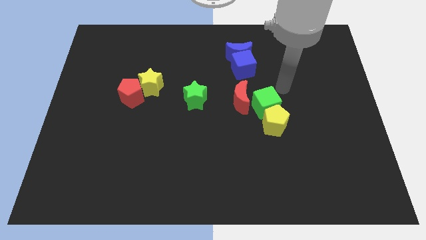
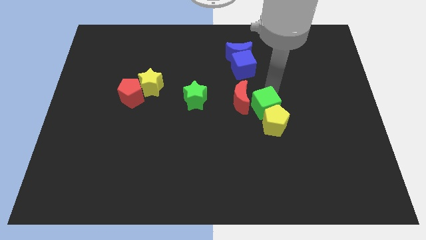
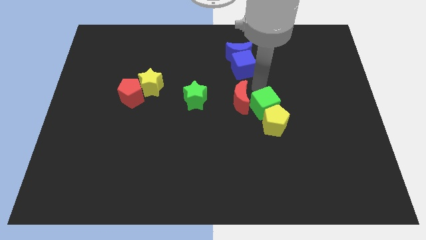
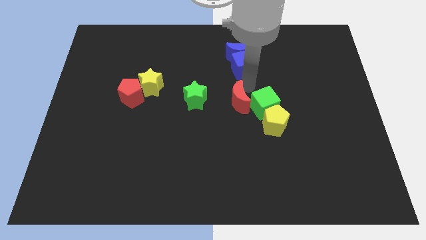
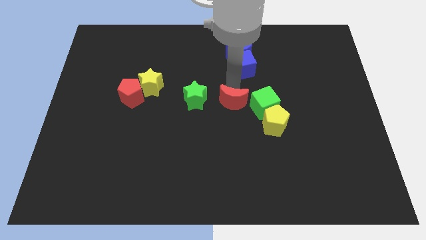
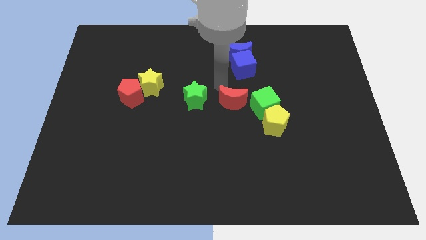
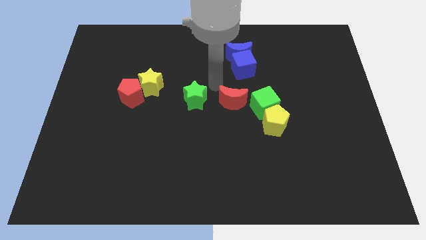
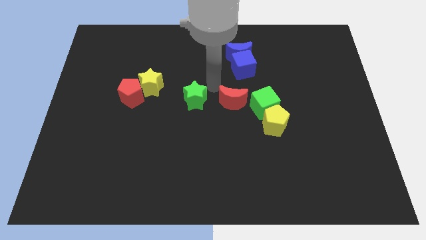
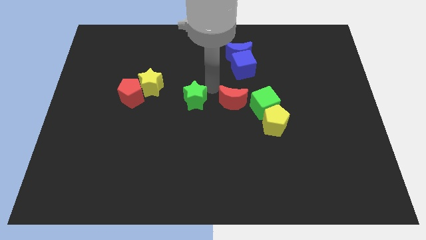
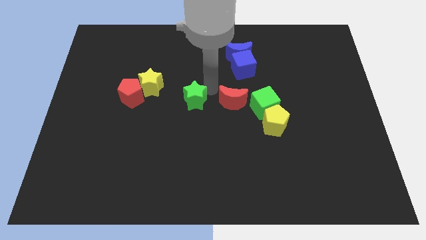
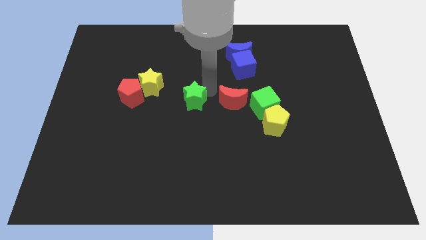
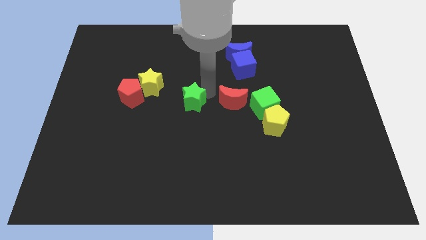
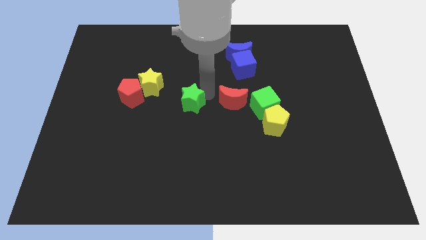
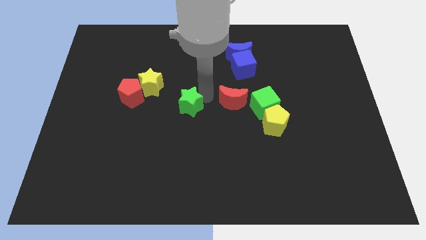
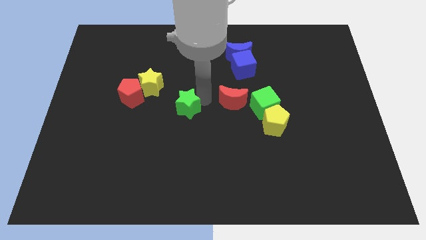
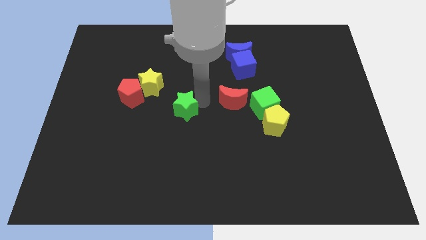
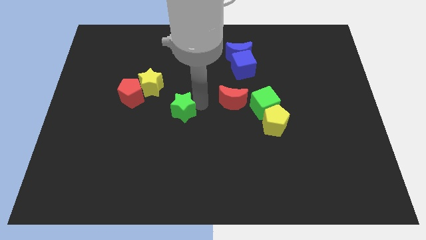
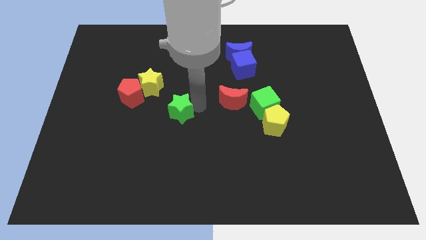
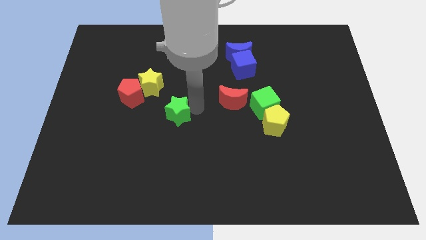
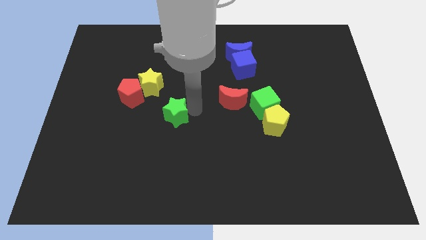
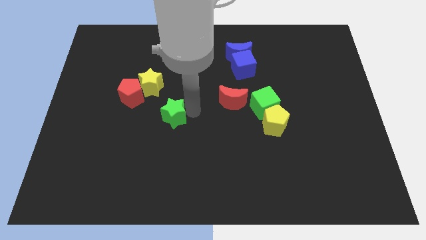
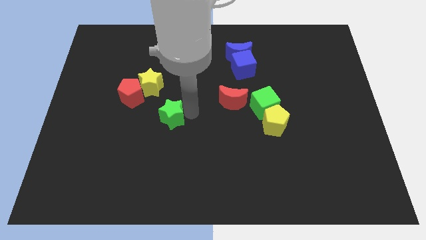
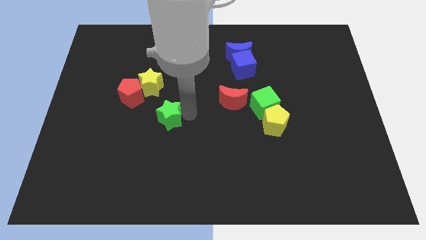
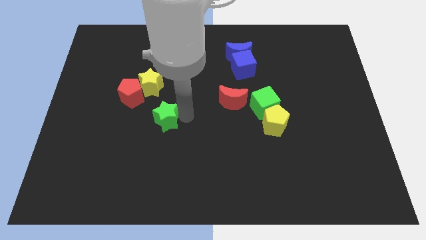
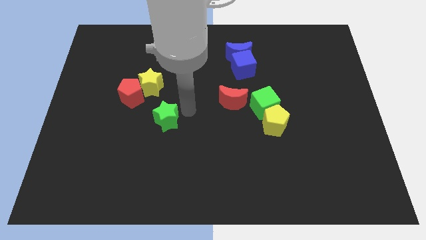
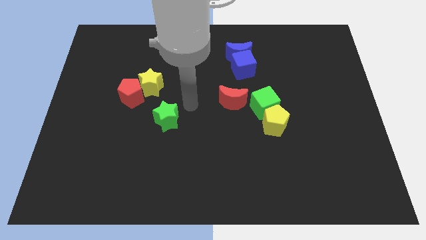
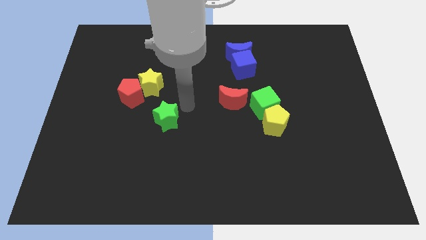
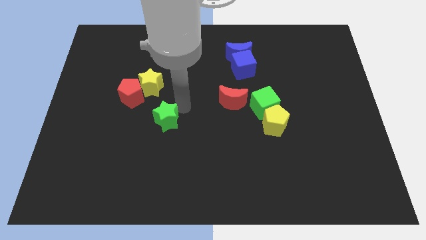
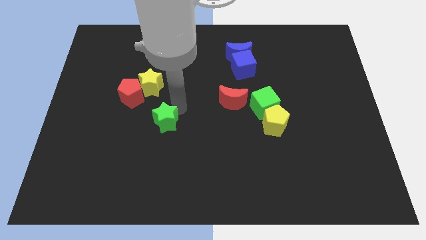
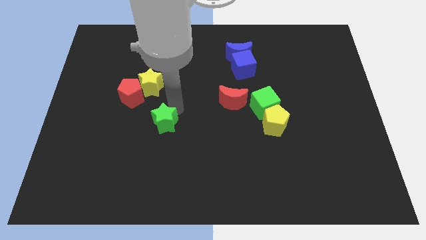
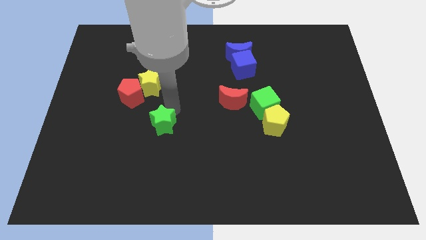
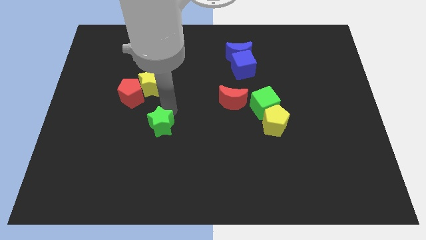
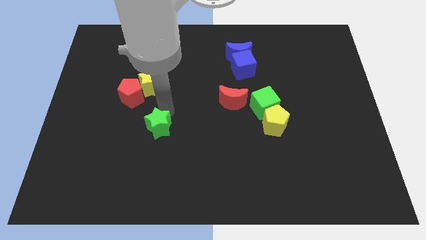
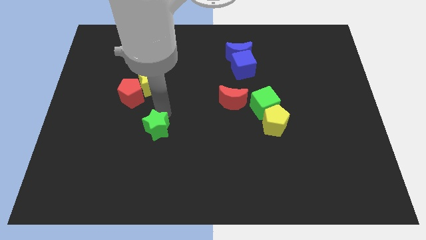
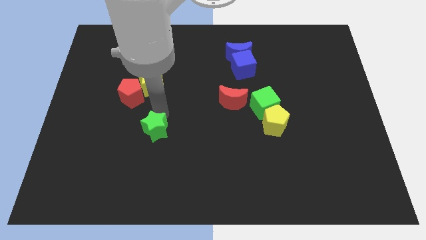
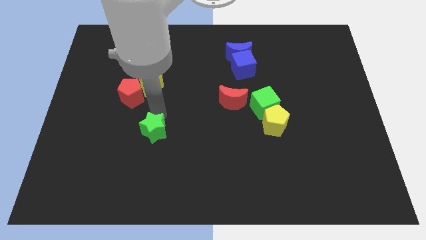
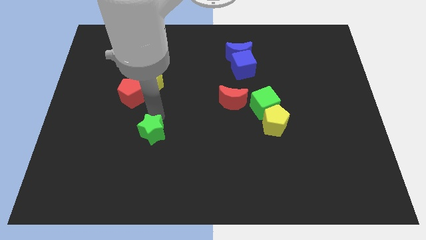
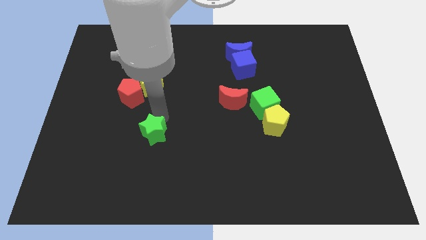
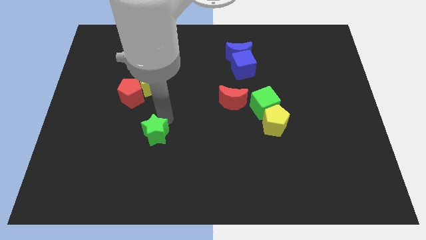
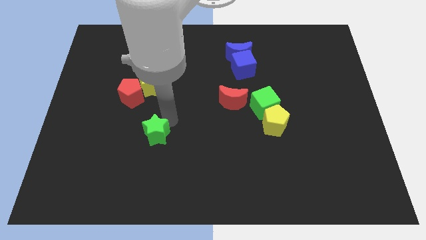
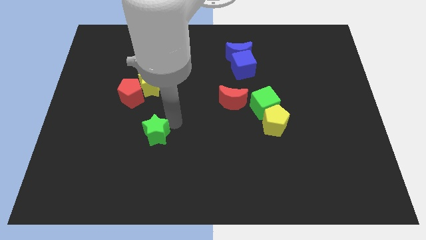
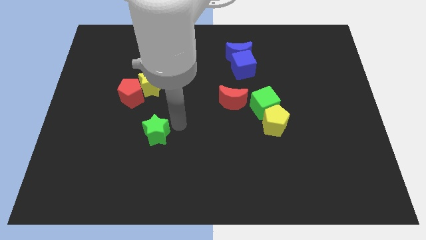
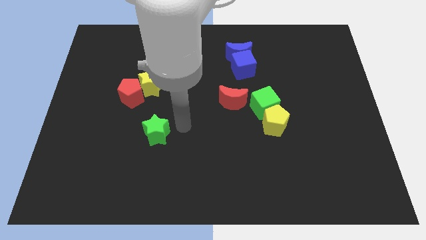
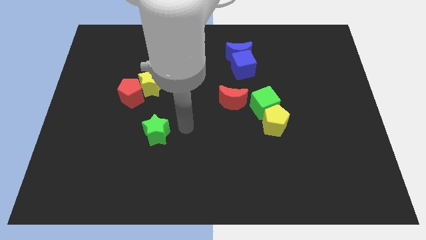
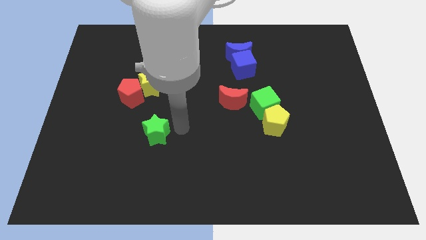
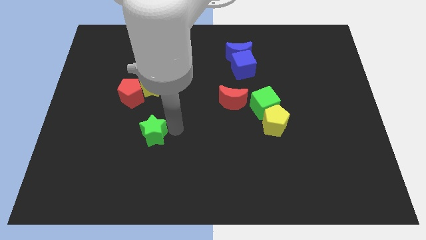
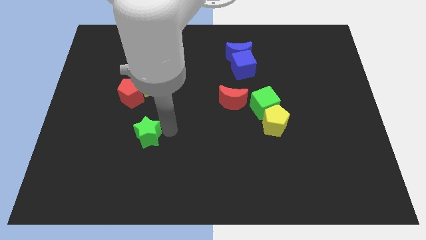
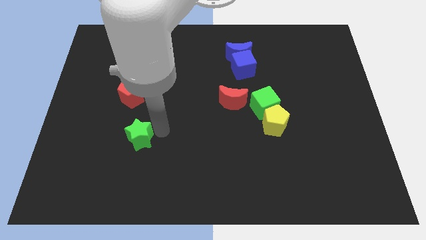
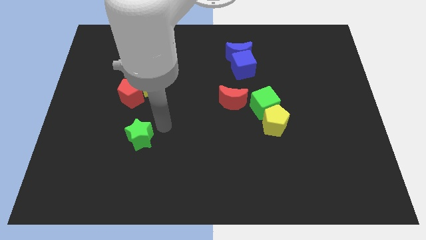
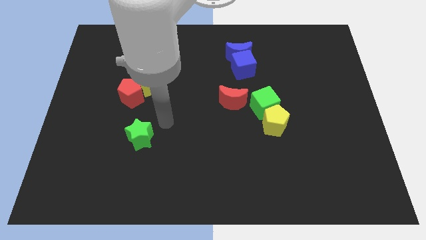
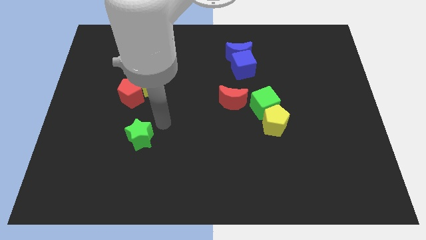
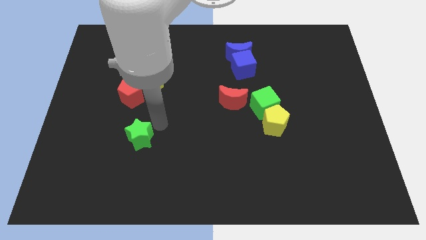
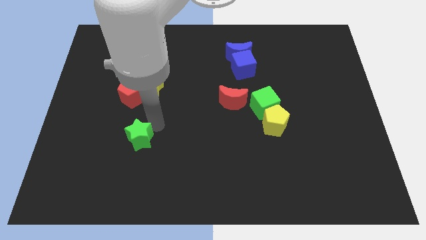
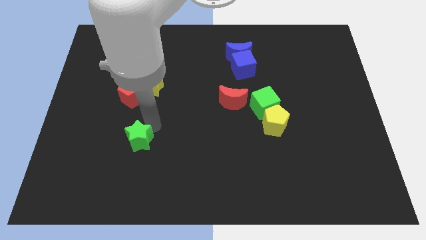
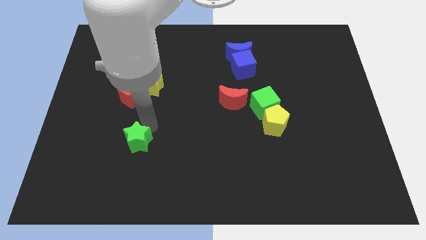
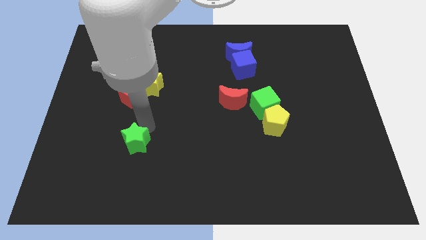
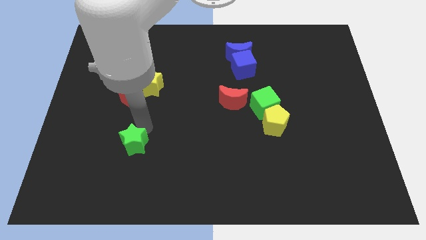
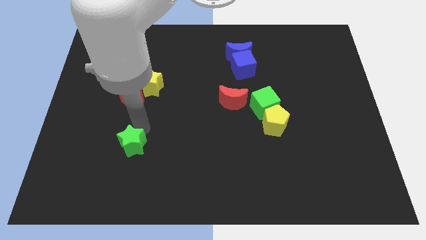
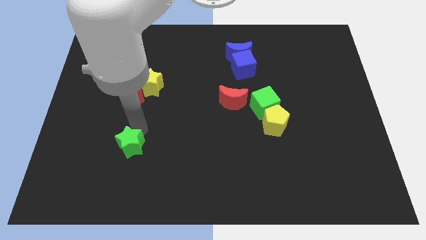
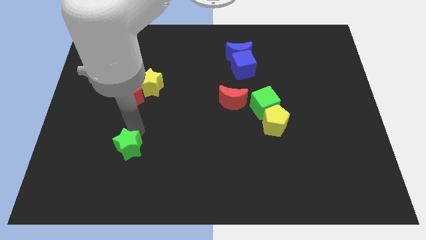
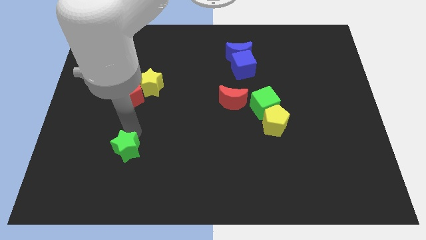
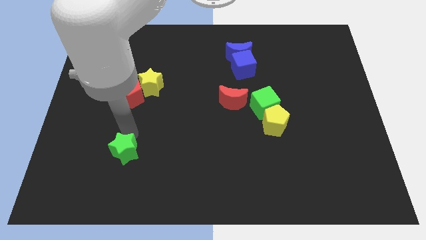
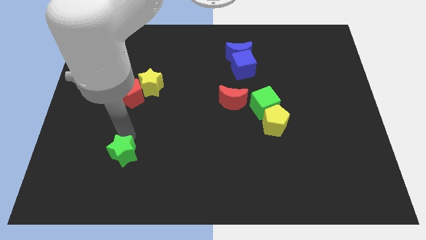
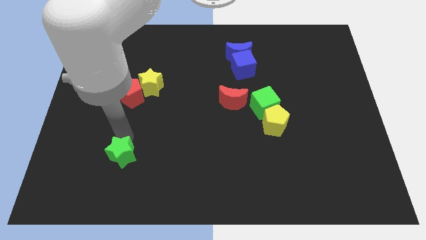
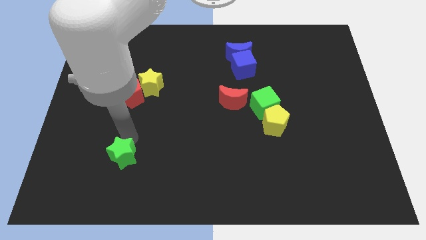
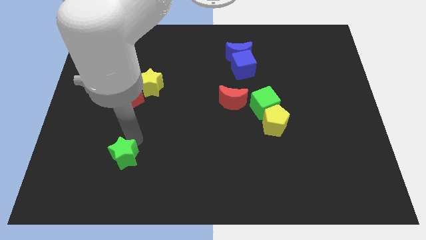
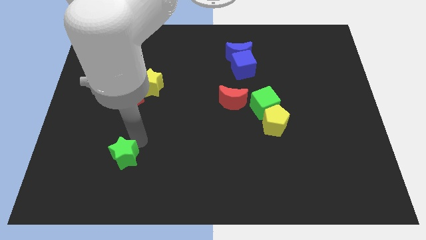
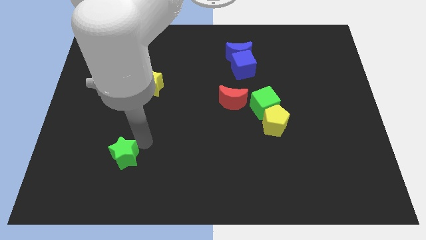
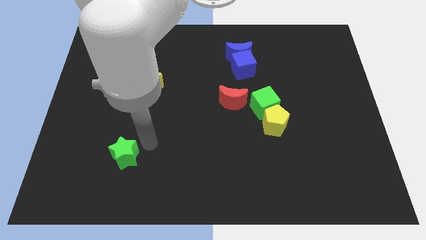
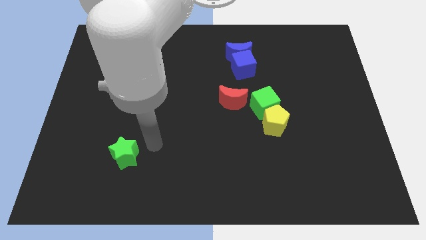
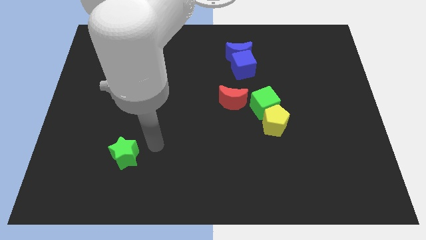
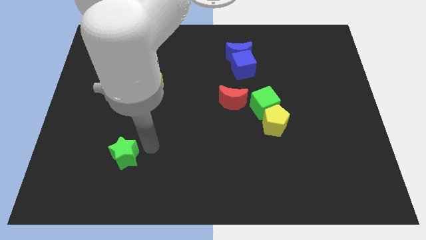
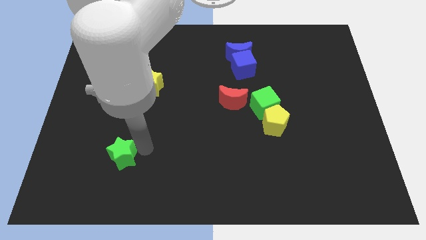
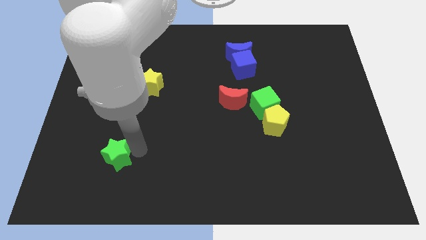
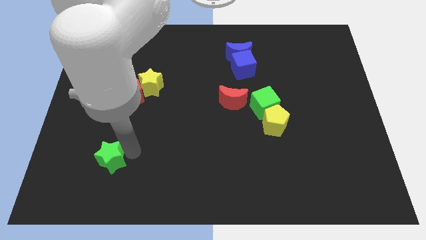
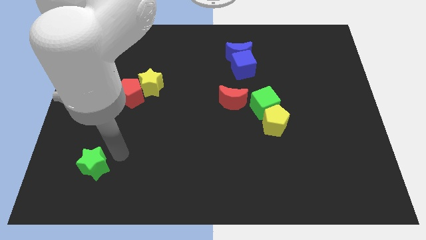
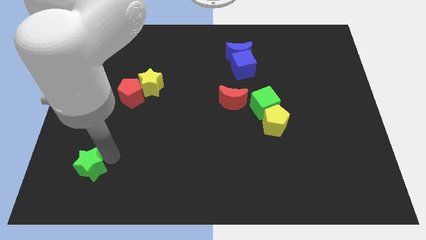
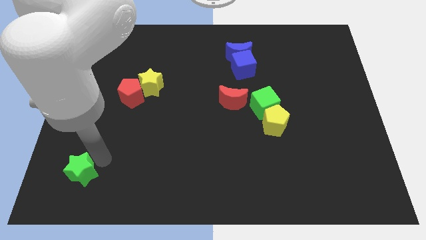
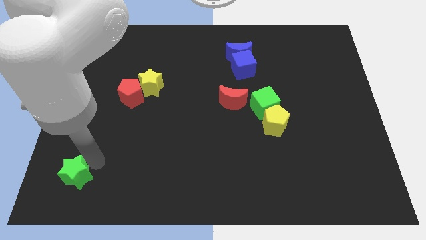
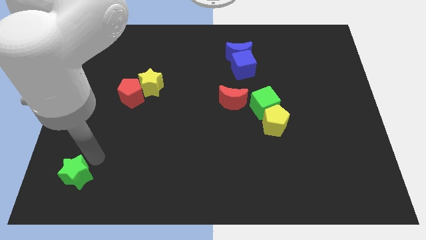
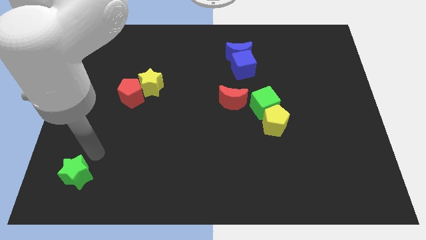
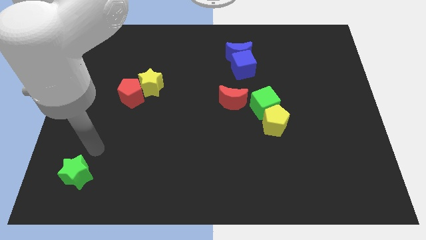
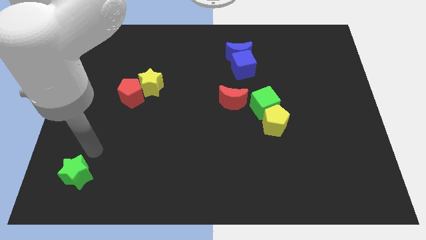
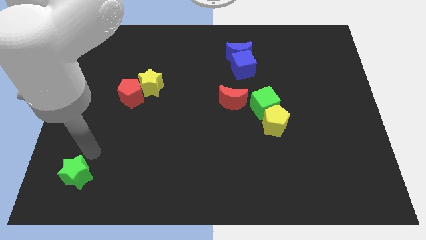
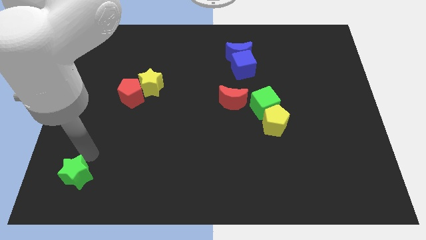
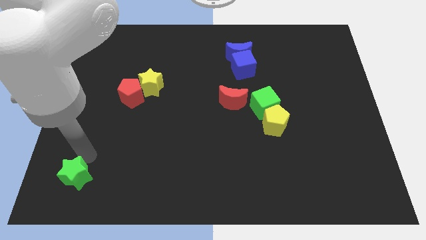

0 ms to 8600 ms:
slide the green star to the lower left corner
